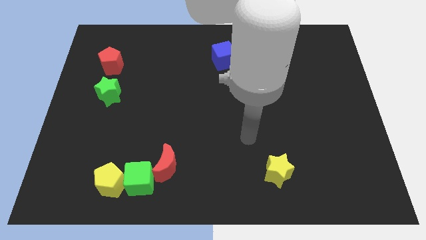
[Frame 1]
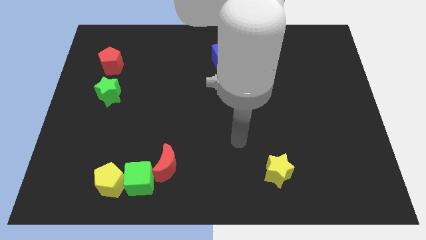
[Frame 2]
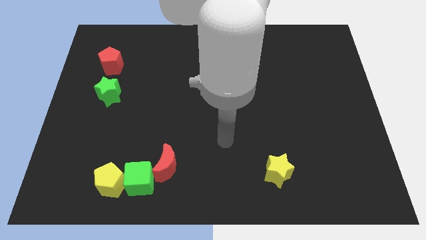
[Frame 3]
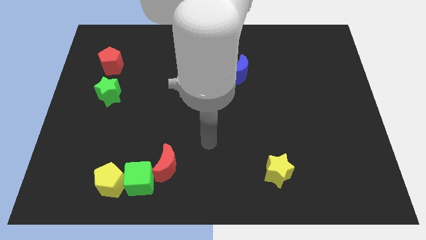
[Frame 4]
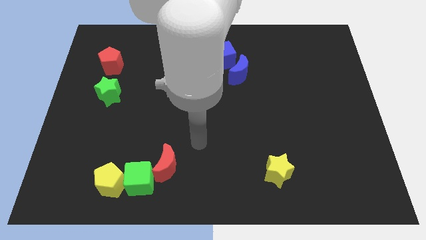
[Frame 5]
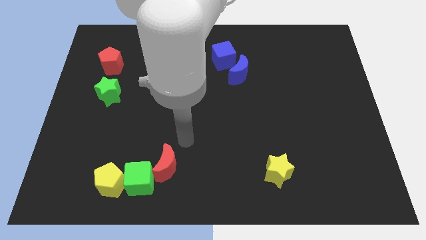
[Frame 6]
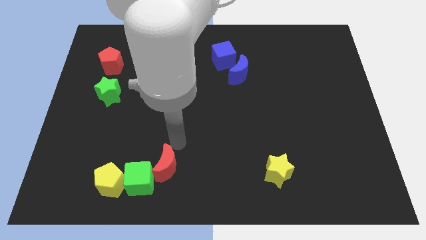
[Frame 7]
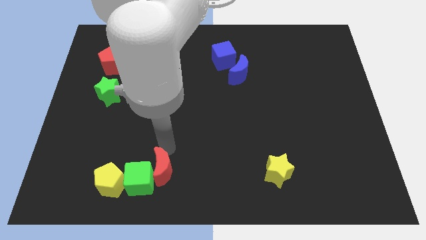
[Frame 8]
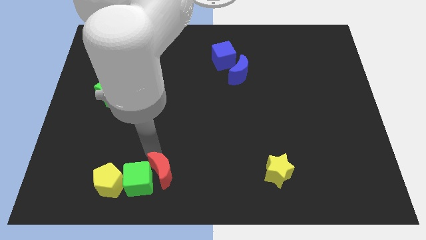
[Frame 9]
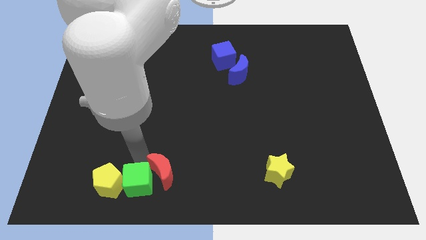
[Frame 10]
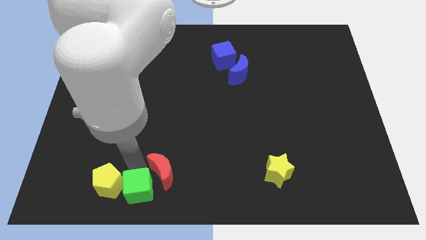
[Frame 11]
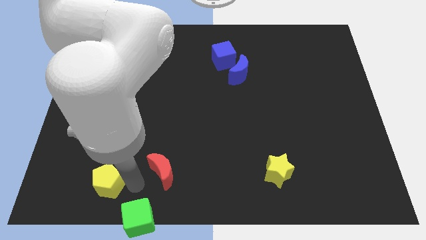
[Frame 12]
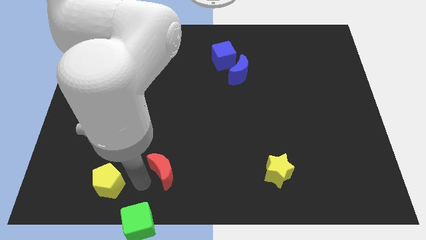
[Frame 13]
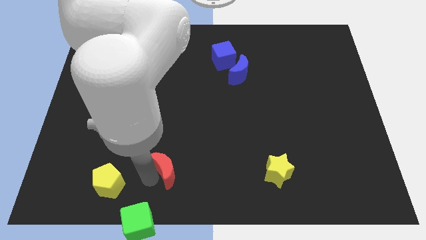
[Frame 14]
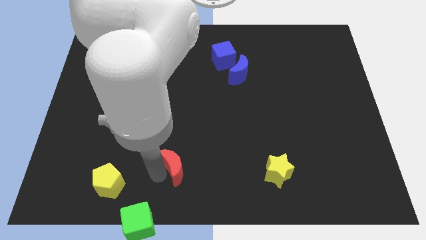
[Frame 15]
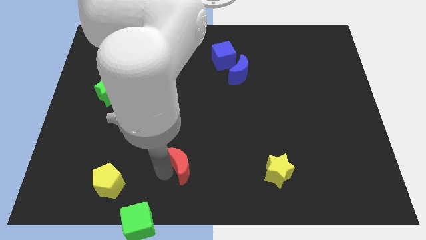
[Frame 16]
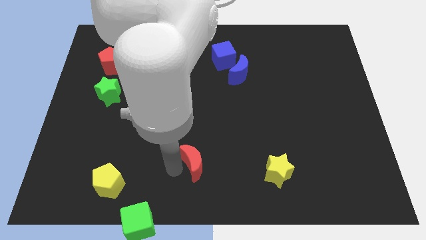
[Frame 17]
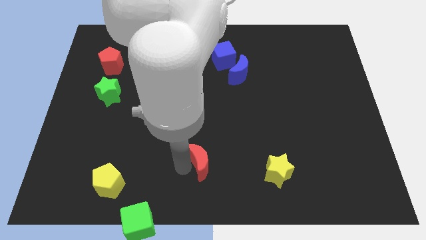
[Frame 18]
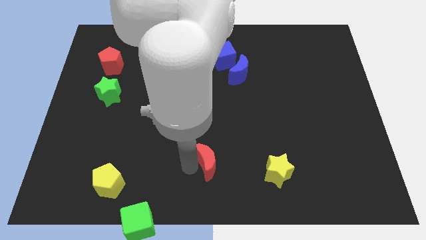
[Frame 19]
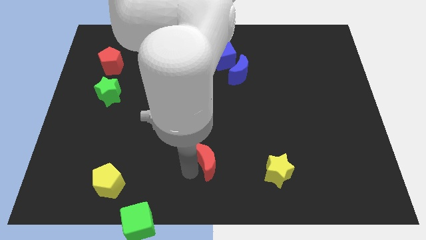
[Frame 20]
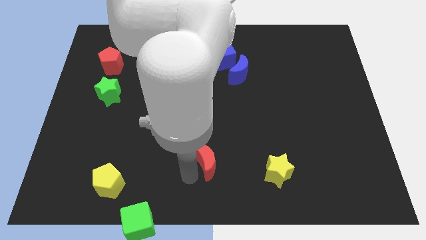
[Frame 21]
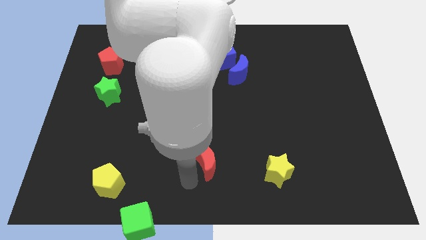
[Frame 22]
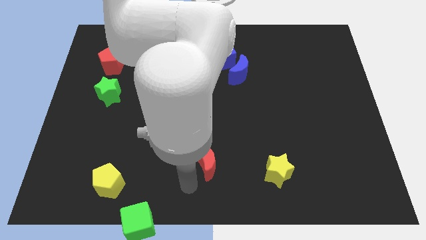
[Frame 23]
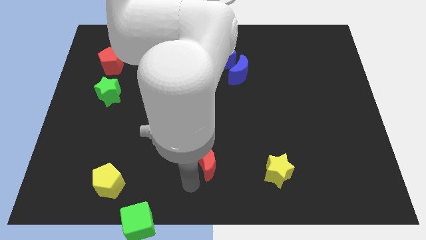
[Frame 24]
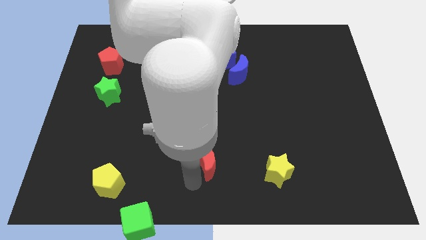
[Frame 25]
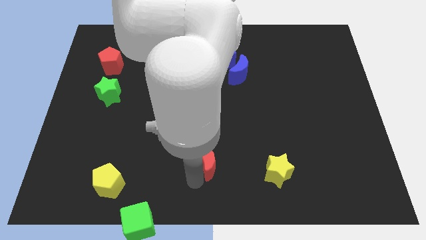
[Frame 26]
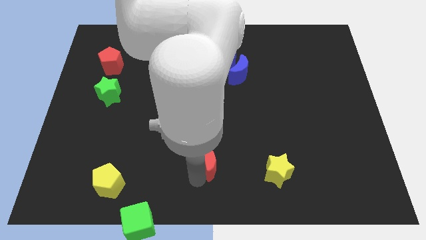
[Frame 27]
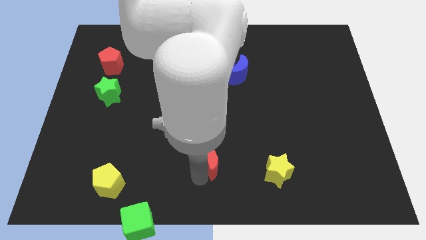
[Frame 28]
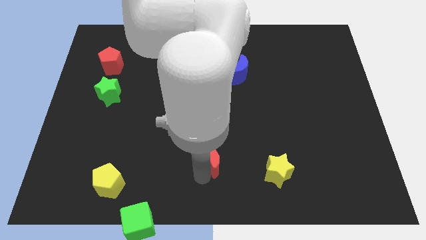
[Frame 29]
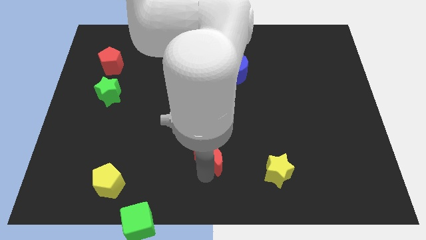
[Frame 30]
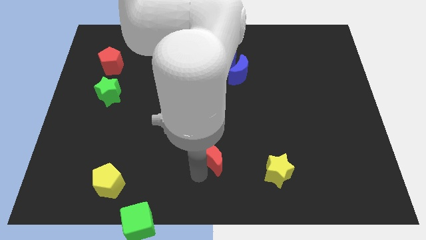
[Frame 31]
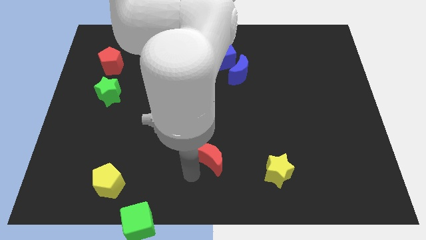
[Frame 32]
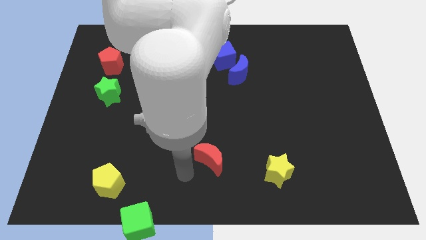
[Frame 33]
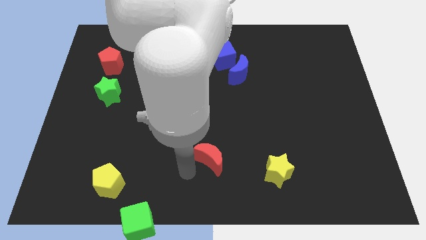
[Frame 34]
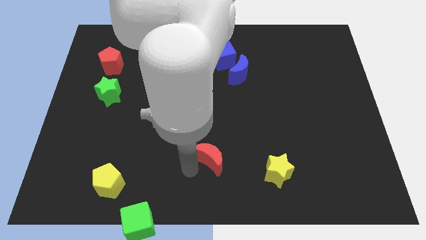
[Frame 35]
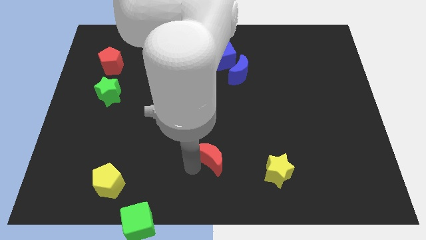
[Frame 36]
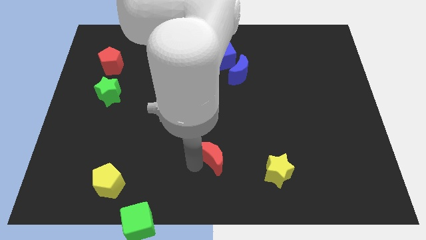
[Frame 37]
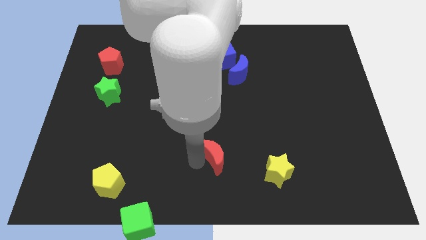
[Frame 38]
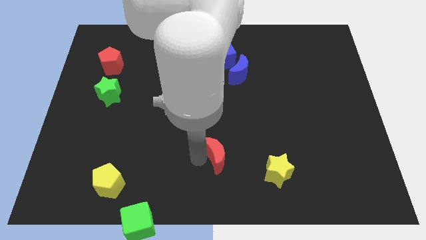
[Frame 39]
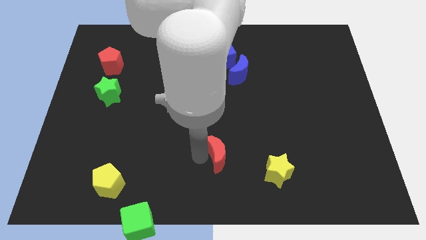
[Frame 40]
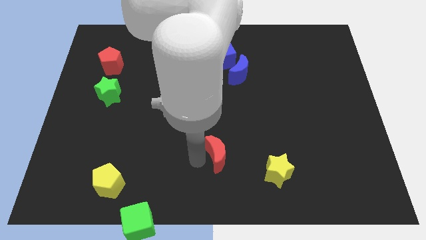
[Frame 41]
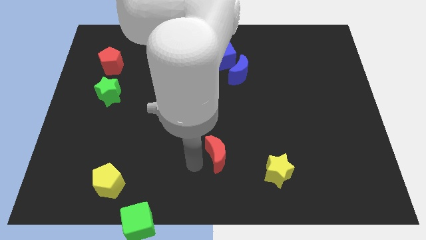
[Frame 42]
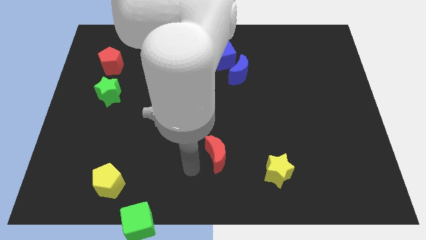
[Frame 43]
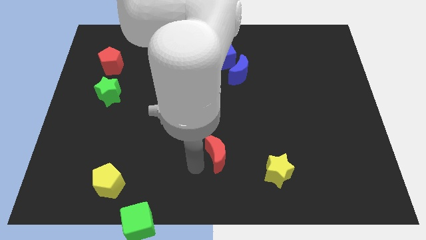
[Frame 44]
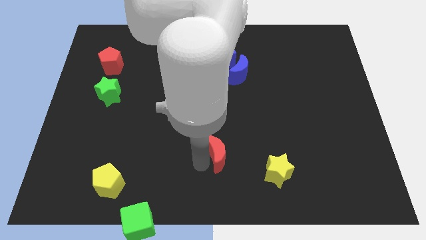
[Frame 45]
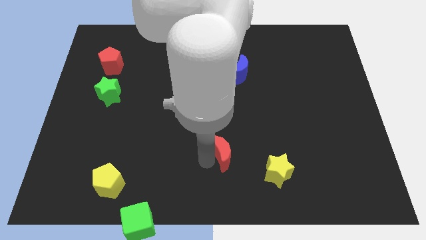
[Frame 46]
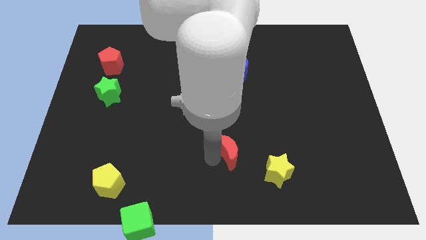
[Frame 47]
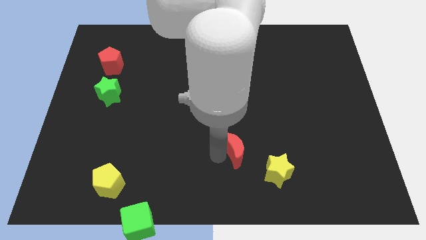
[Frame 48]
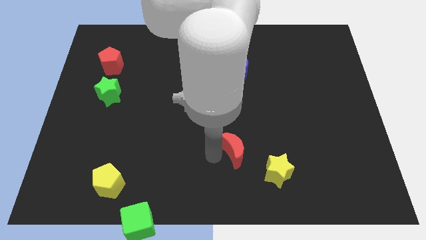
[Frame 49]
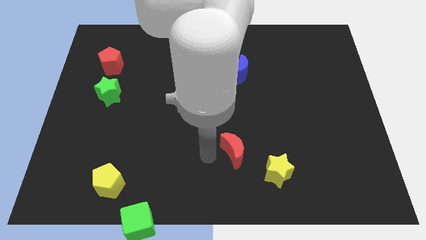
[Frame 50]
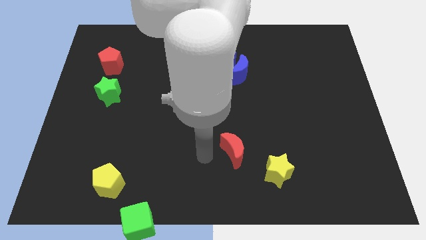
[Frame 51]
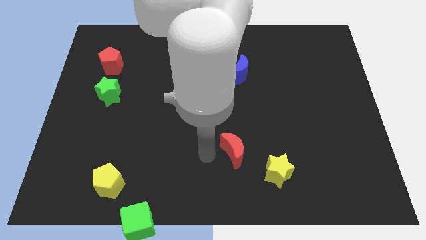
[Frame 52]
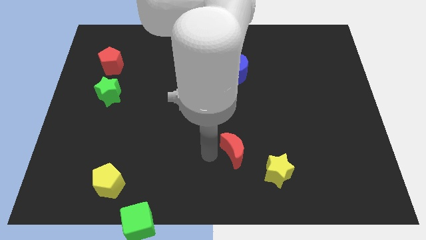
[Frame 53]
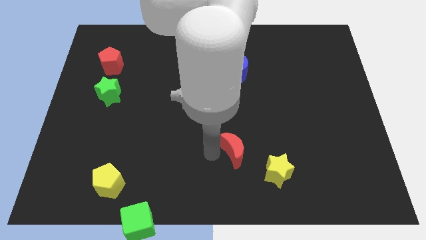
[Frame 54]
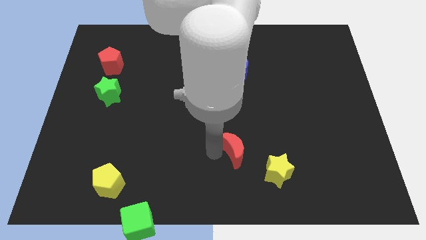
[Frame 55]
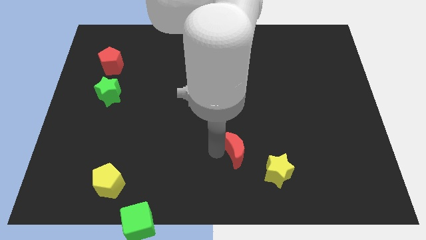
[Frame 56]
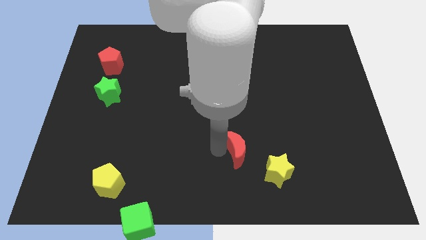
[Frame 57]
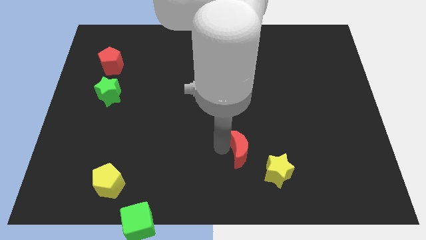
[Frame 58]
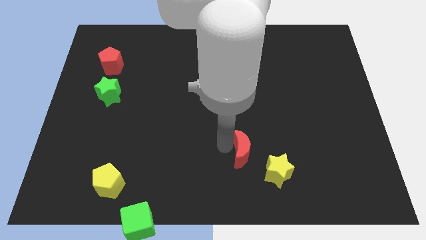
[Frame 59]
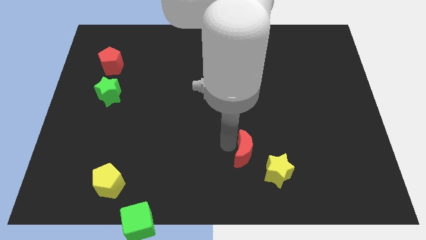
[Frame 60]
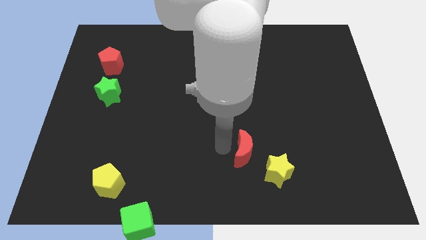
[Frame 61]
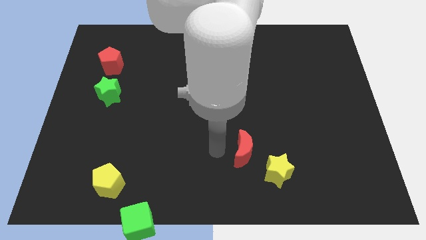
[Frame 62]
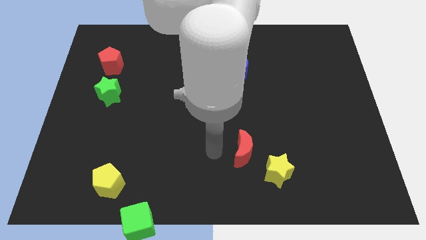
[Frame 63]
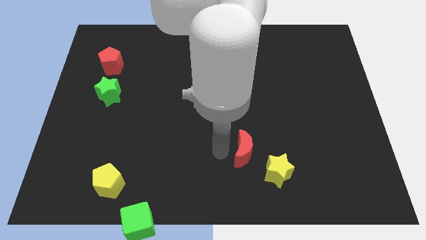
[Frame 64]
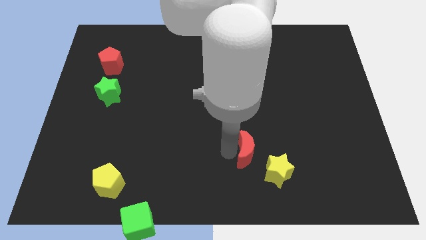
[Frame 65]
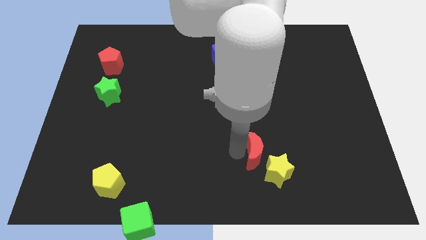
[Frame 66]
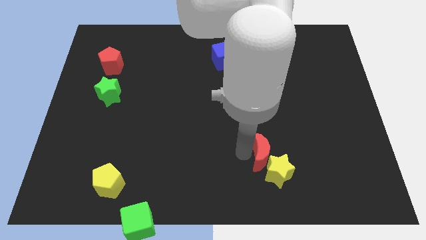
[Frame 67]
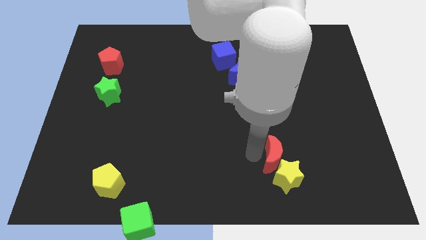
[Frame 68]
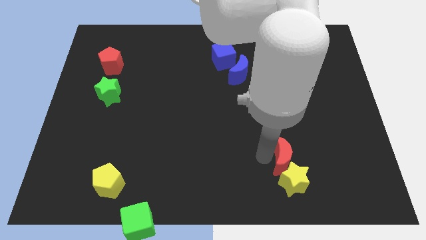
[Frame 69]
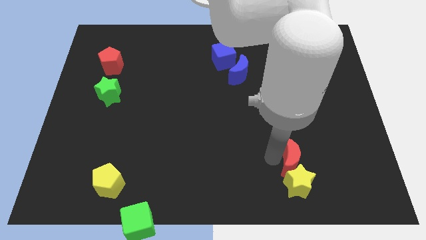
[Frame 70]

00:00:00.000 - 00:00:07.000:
slide the red moon to the top right side of the yellow star

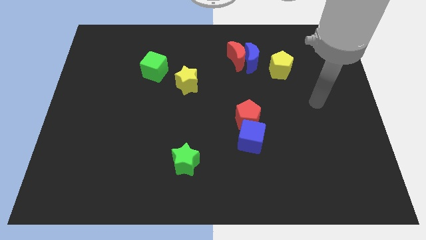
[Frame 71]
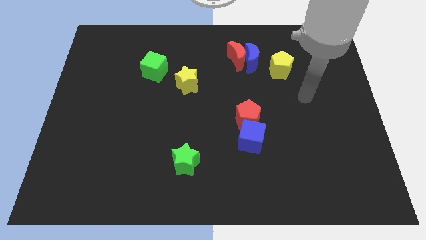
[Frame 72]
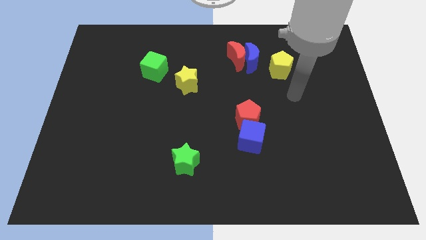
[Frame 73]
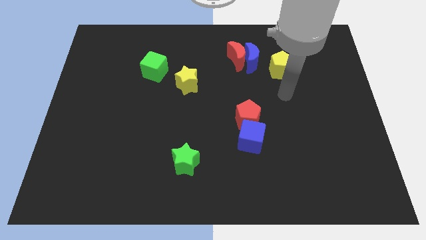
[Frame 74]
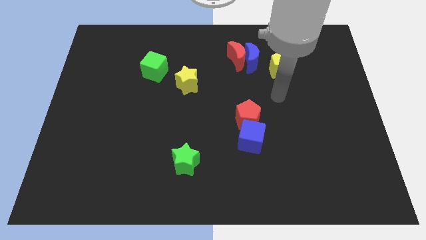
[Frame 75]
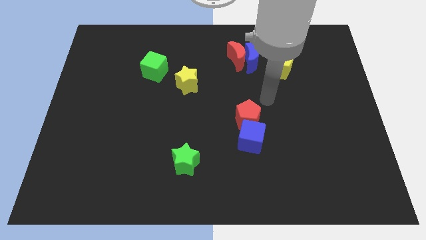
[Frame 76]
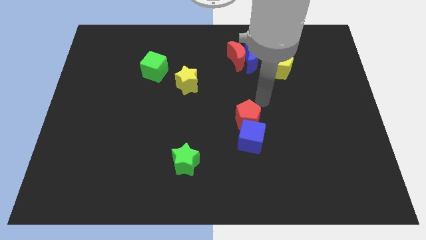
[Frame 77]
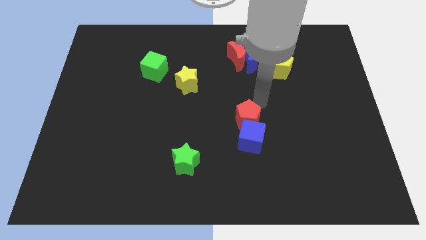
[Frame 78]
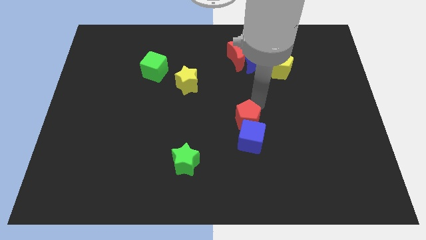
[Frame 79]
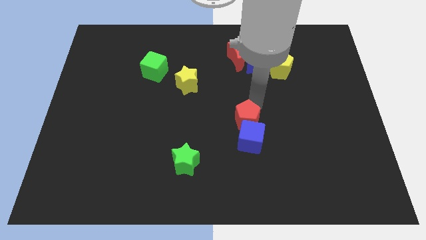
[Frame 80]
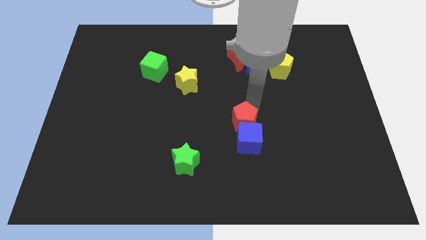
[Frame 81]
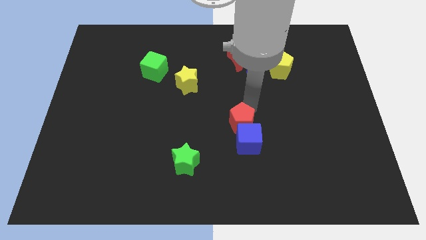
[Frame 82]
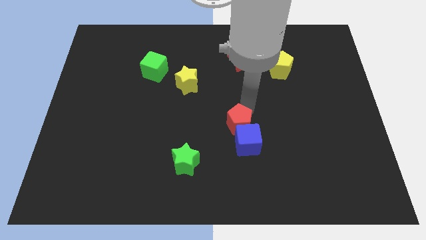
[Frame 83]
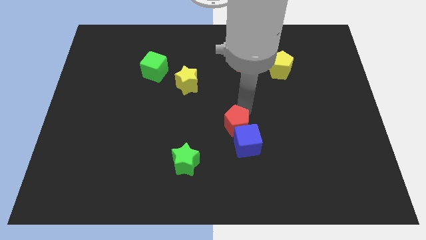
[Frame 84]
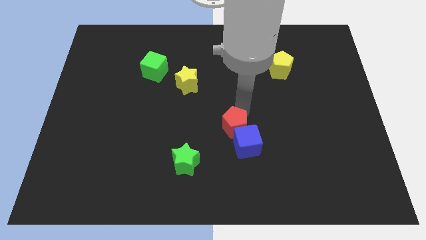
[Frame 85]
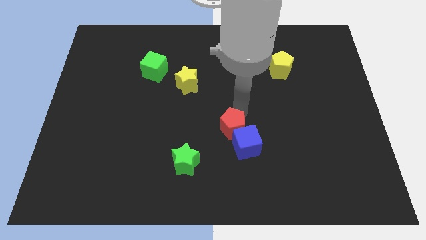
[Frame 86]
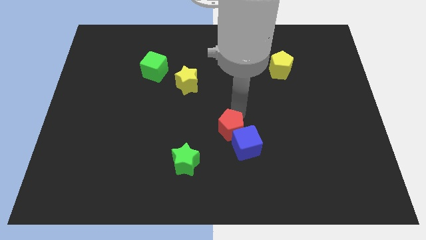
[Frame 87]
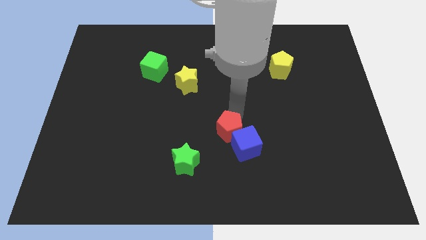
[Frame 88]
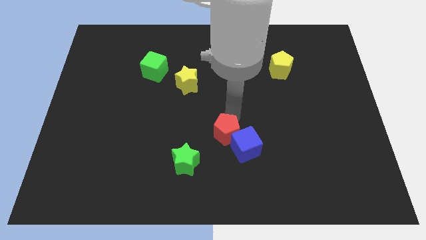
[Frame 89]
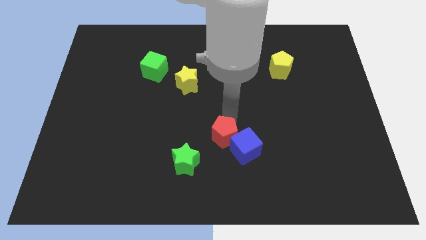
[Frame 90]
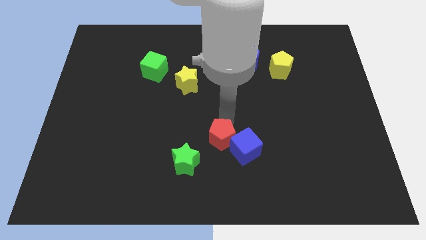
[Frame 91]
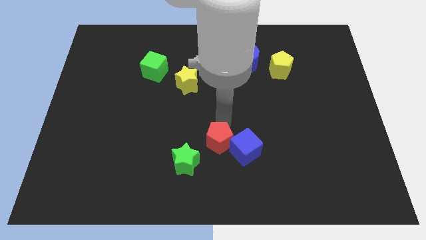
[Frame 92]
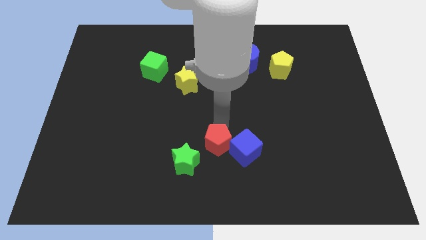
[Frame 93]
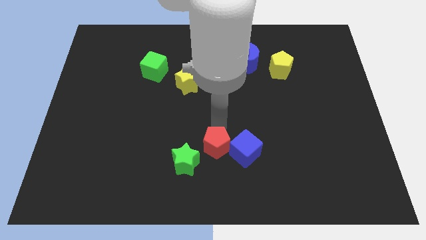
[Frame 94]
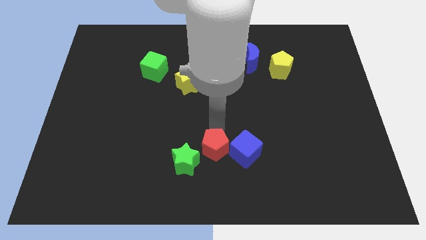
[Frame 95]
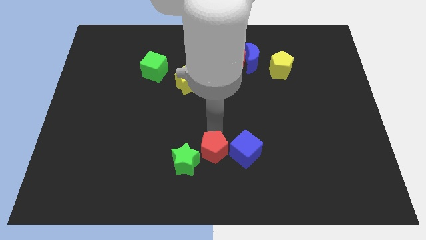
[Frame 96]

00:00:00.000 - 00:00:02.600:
slide the red pentagon to the bottom left side of the blue cube
